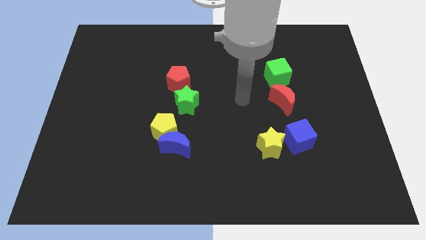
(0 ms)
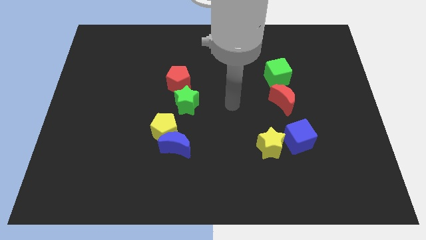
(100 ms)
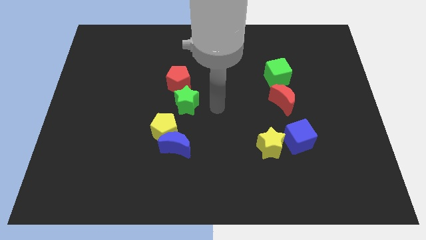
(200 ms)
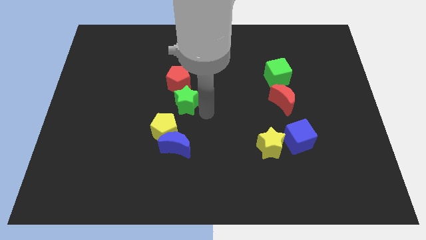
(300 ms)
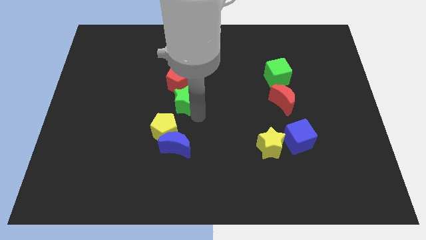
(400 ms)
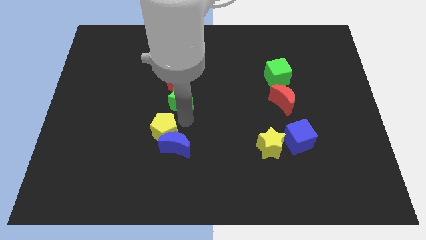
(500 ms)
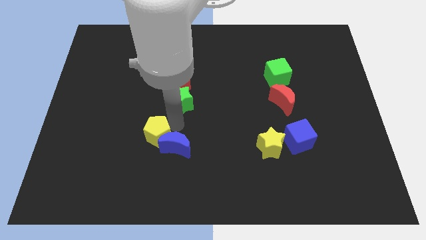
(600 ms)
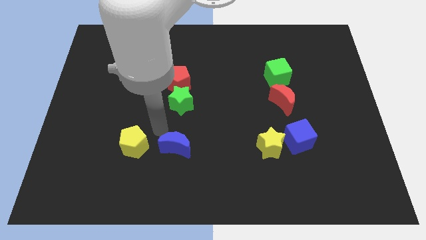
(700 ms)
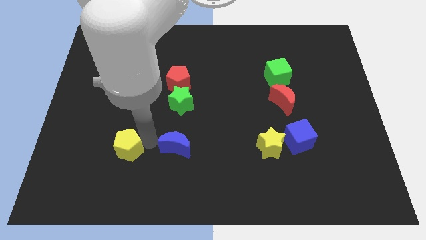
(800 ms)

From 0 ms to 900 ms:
pull the blue moon apart from the yellow pentagon

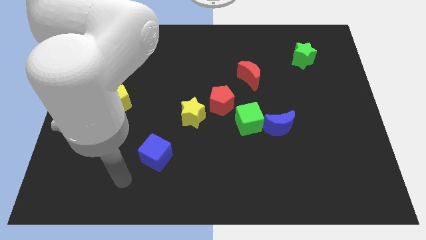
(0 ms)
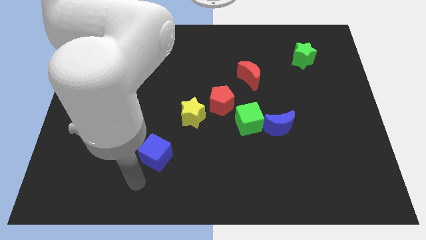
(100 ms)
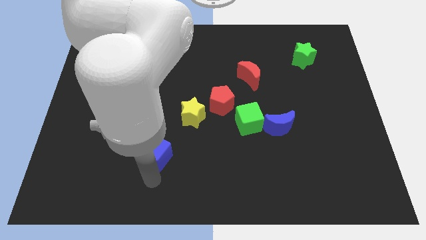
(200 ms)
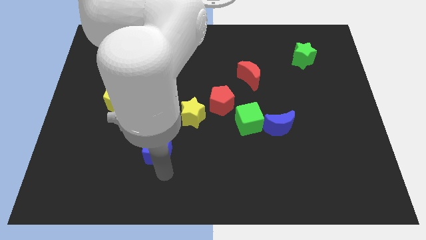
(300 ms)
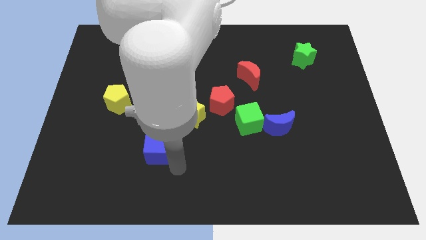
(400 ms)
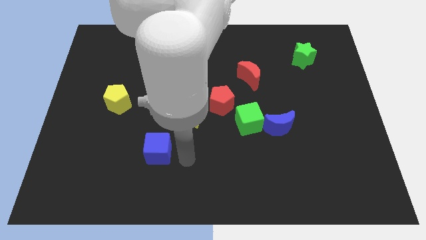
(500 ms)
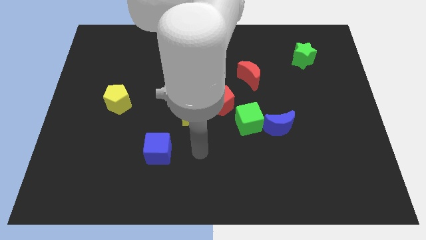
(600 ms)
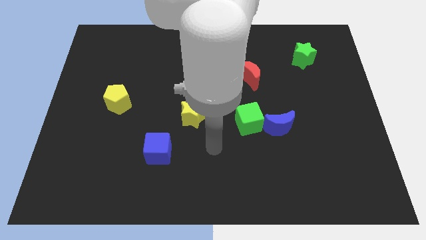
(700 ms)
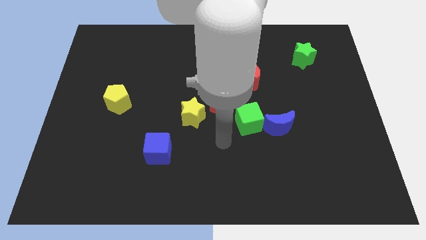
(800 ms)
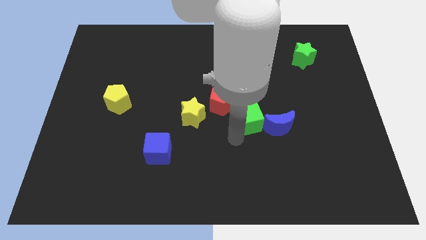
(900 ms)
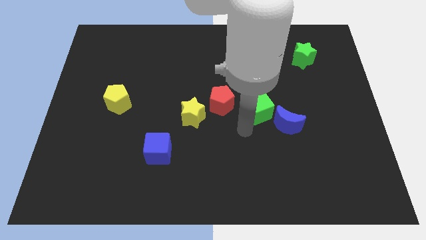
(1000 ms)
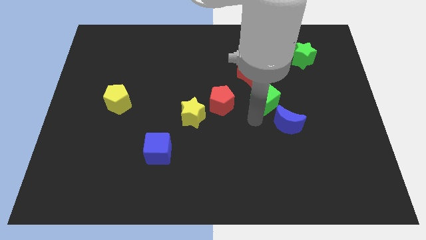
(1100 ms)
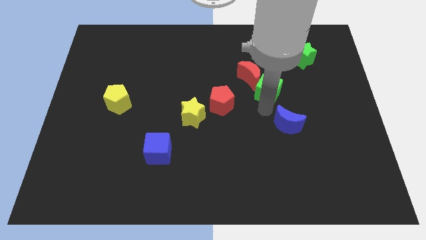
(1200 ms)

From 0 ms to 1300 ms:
pull the blue moon apart from the green cube

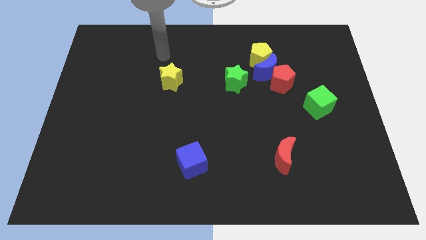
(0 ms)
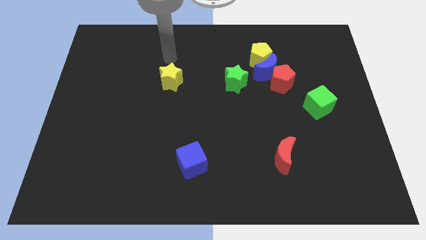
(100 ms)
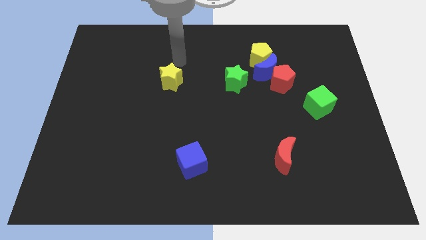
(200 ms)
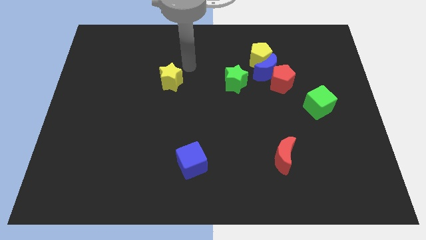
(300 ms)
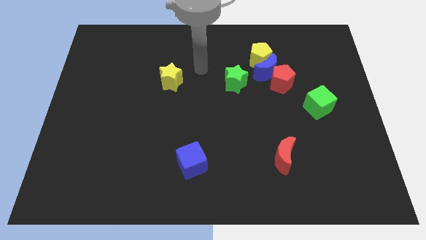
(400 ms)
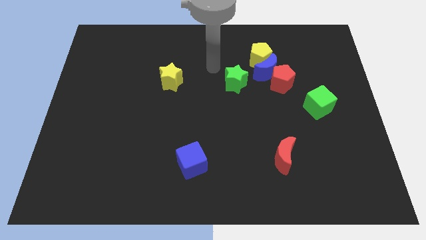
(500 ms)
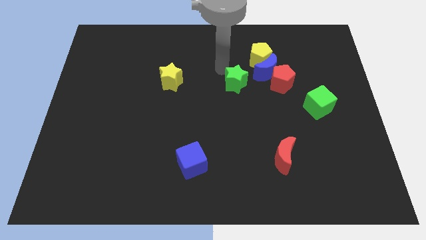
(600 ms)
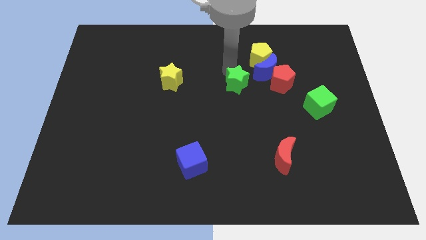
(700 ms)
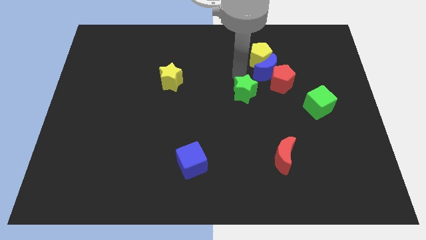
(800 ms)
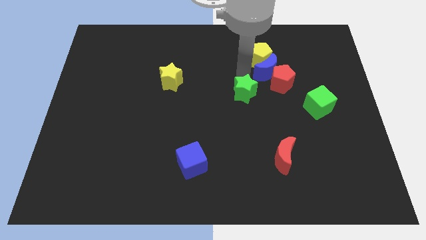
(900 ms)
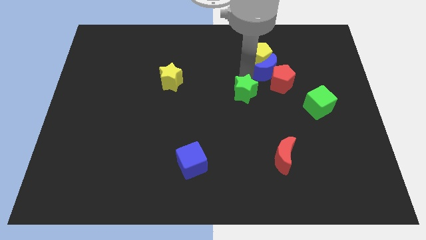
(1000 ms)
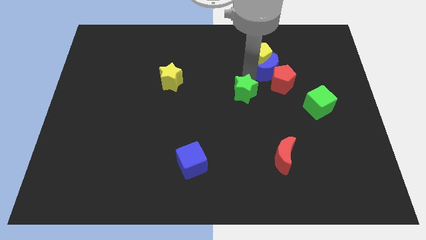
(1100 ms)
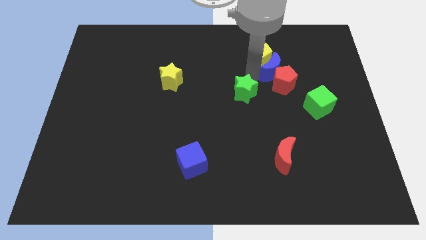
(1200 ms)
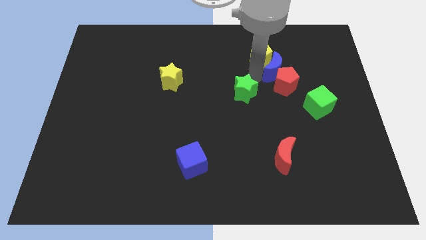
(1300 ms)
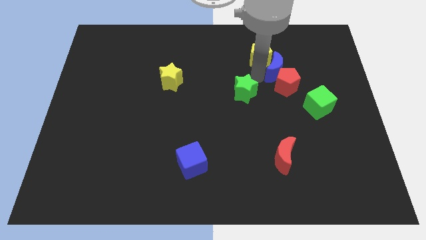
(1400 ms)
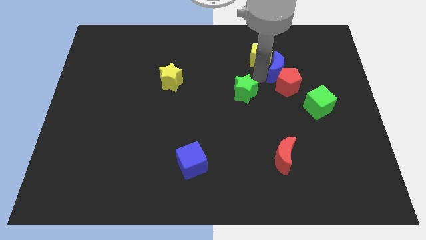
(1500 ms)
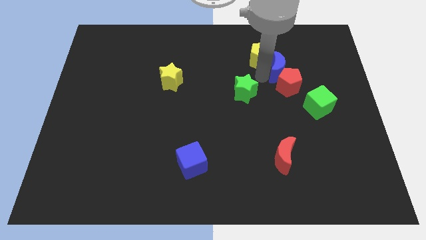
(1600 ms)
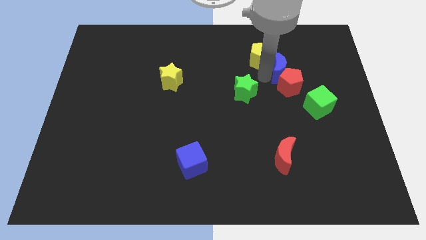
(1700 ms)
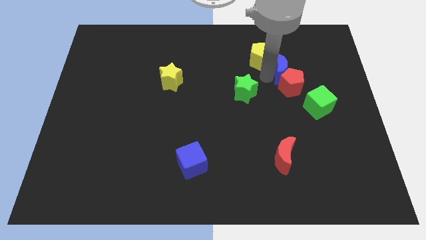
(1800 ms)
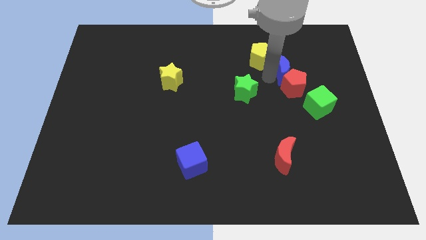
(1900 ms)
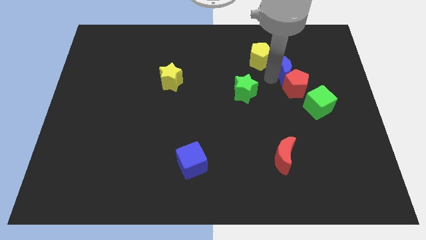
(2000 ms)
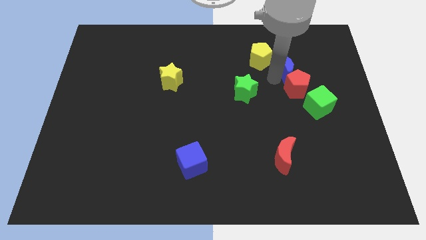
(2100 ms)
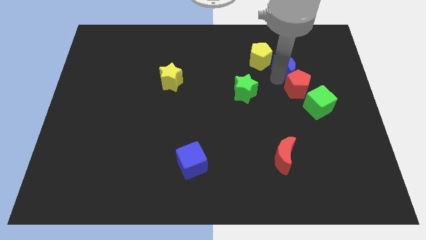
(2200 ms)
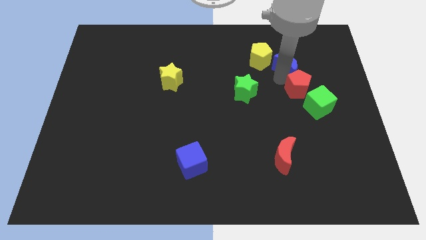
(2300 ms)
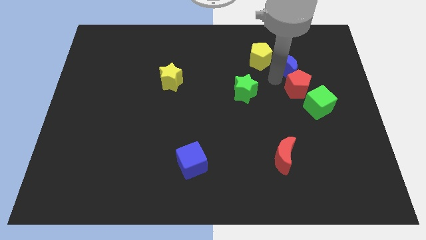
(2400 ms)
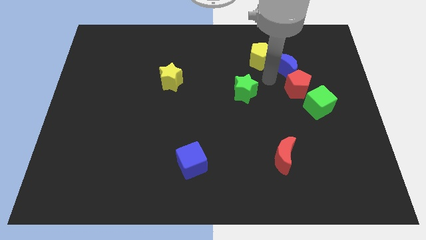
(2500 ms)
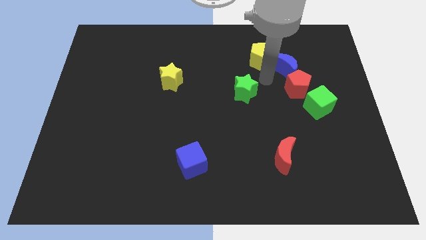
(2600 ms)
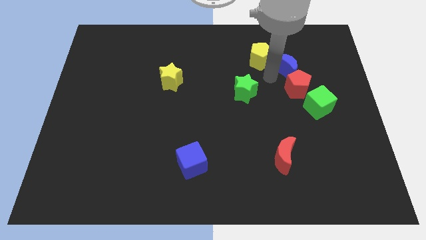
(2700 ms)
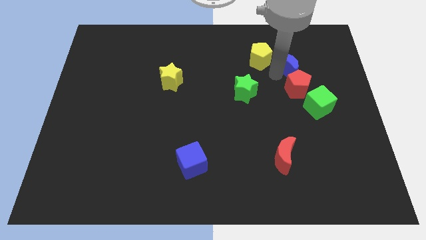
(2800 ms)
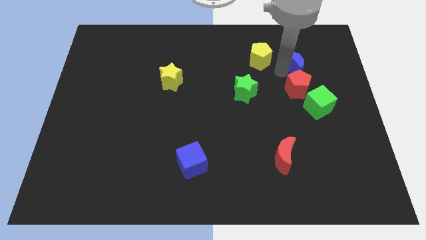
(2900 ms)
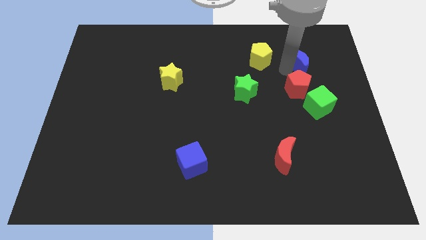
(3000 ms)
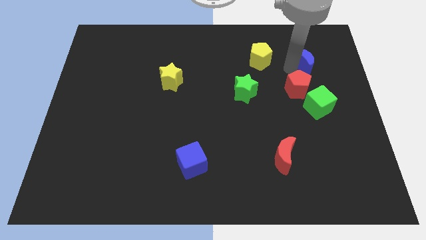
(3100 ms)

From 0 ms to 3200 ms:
move the blue moon away from the yellow pentagon, red pentagon, and green star

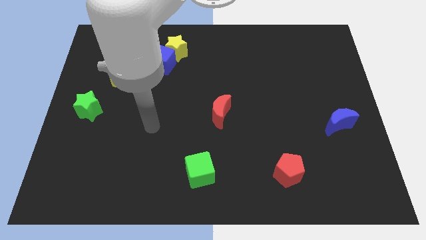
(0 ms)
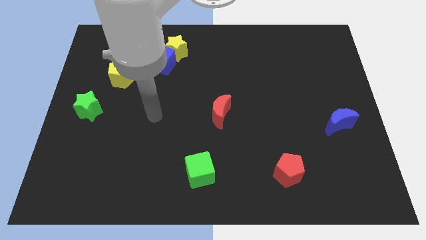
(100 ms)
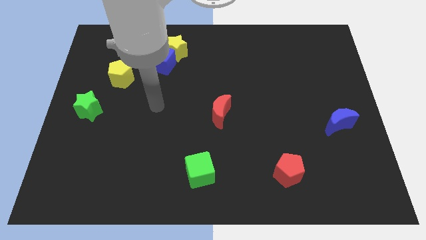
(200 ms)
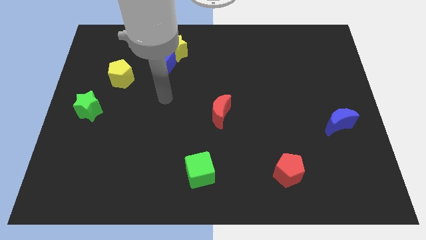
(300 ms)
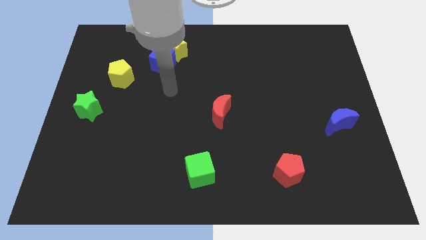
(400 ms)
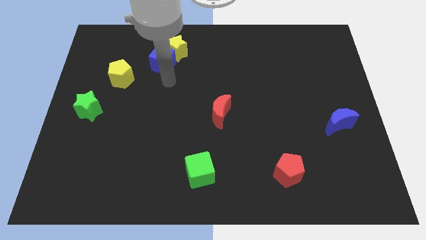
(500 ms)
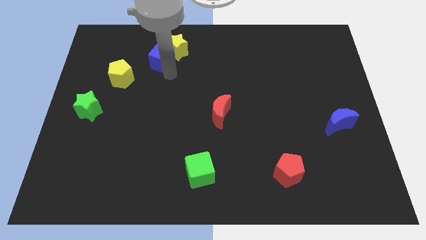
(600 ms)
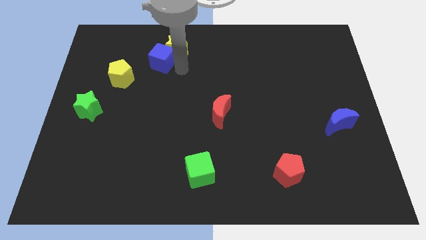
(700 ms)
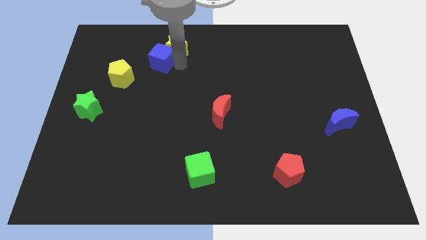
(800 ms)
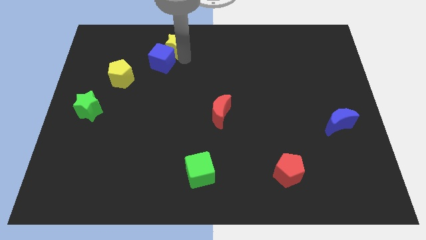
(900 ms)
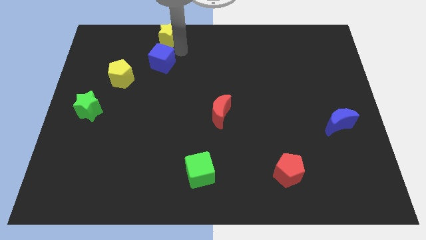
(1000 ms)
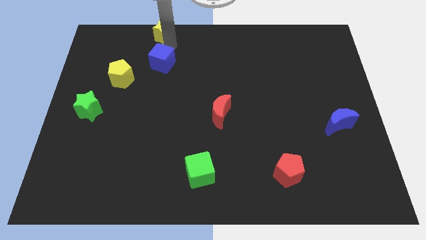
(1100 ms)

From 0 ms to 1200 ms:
move the blue cube away from the yellow star

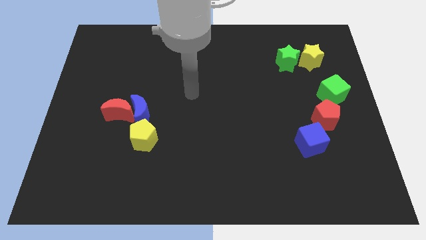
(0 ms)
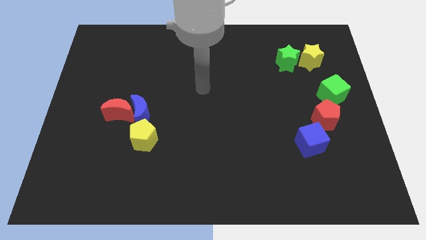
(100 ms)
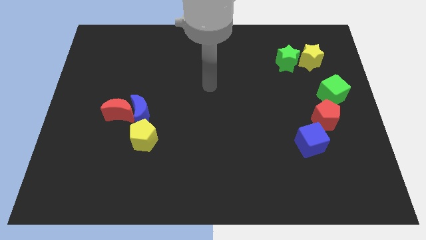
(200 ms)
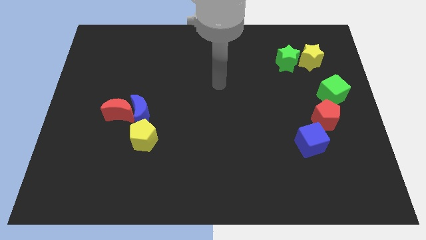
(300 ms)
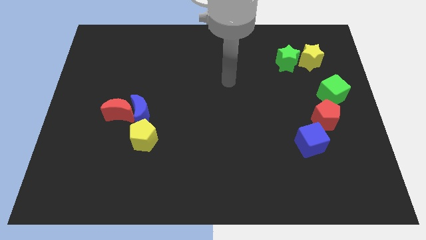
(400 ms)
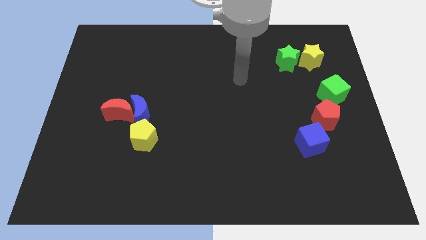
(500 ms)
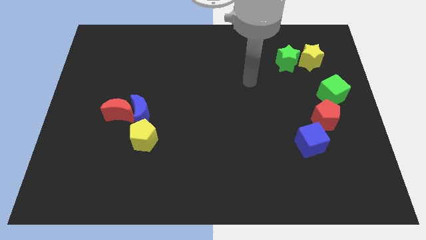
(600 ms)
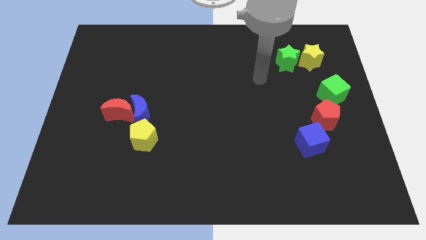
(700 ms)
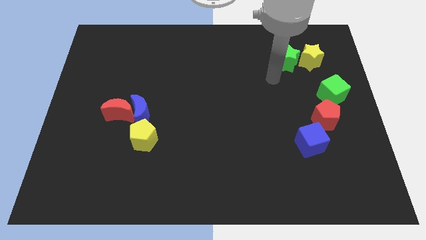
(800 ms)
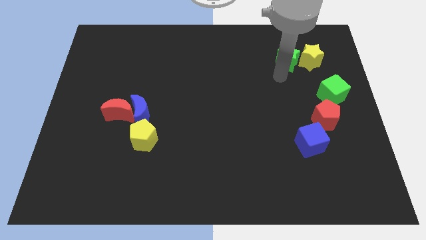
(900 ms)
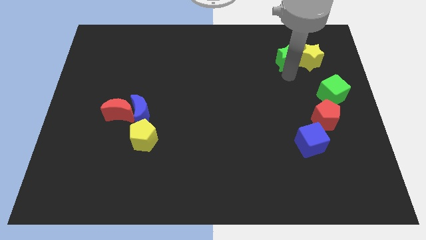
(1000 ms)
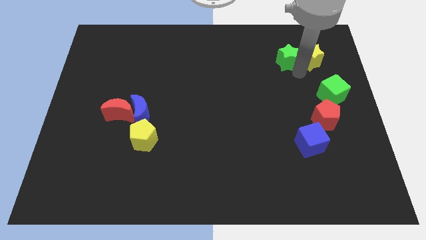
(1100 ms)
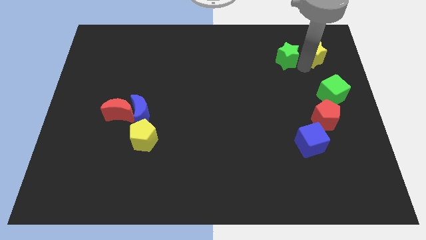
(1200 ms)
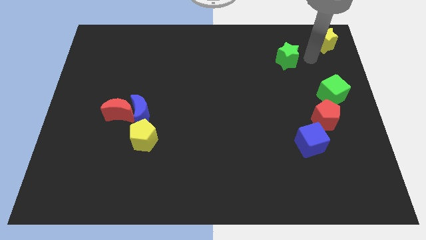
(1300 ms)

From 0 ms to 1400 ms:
pull the green star apart from the yellow star

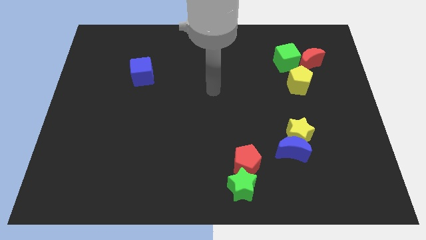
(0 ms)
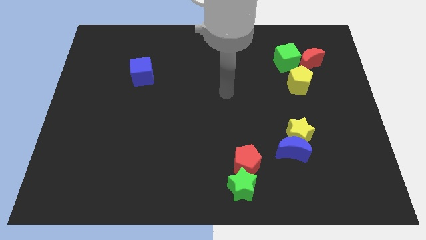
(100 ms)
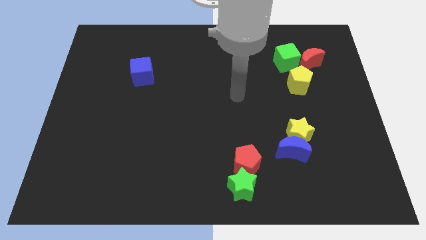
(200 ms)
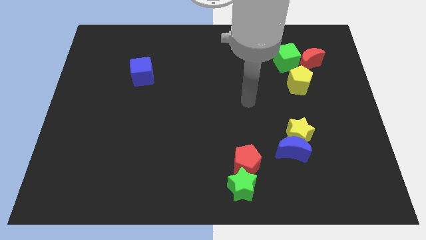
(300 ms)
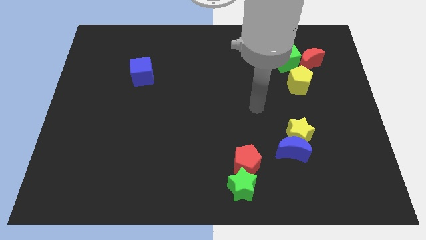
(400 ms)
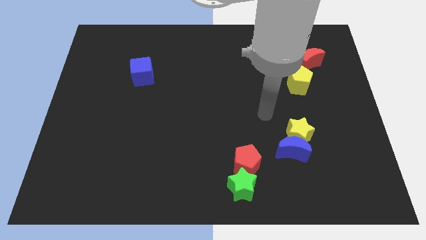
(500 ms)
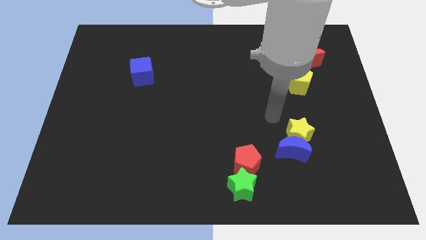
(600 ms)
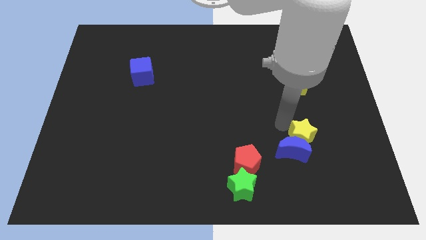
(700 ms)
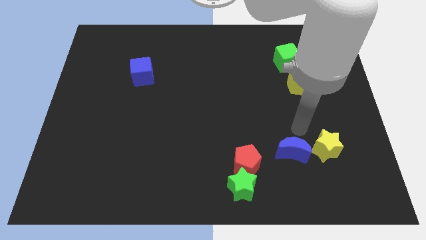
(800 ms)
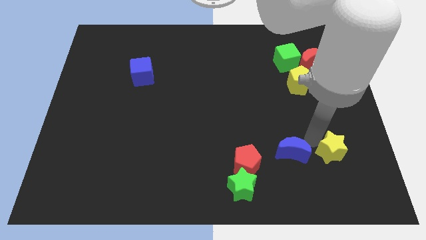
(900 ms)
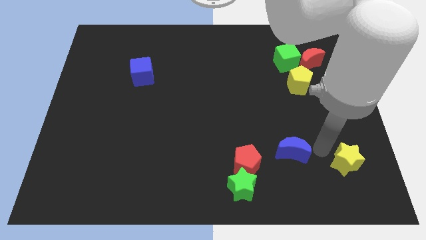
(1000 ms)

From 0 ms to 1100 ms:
move the blue moon away from the yellow star

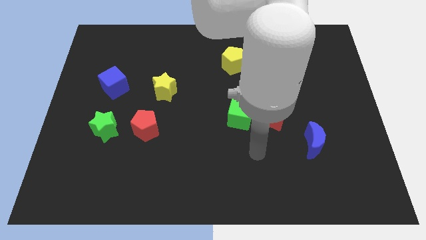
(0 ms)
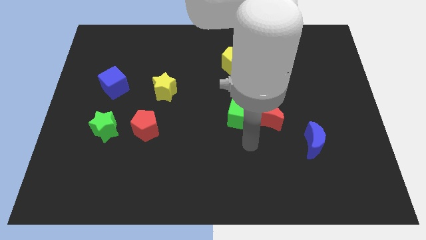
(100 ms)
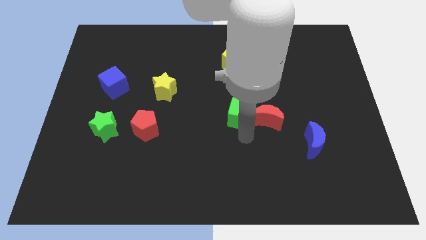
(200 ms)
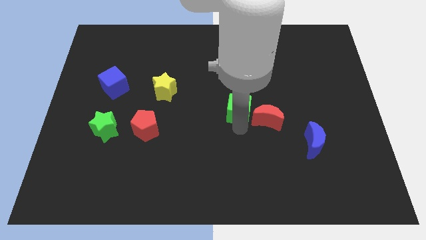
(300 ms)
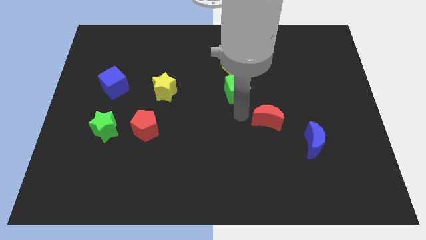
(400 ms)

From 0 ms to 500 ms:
separate the red moon from the green cube
